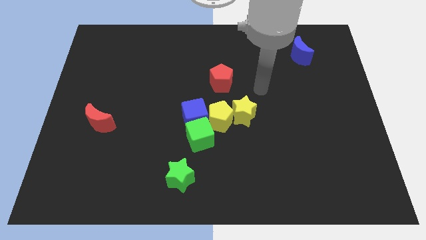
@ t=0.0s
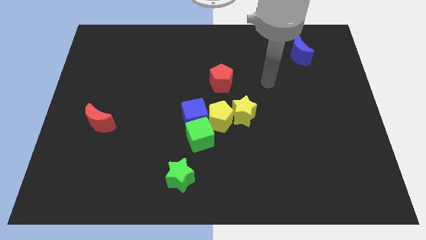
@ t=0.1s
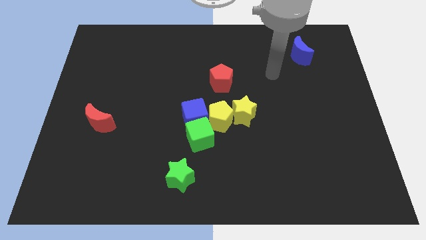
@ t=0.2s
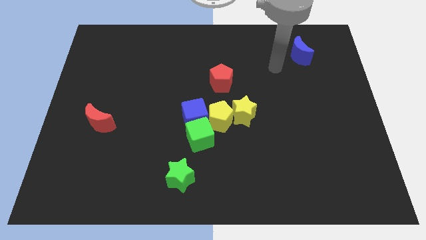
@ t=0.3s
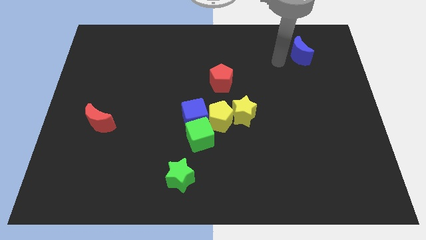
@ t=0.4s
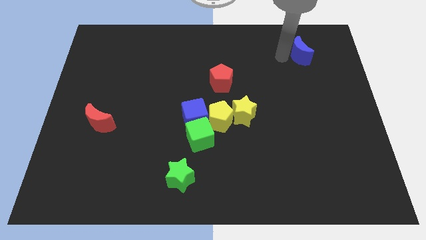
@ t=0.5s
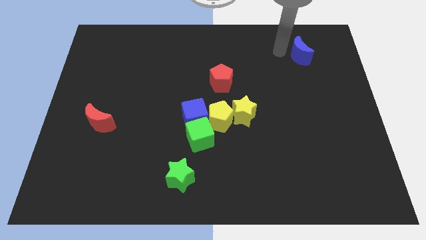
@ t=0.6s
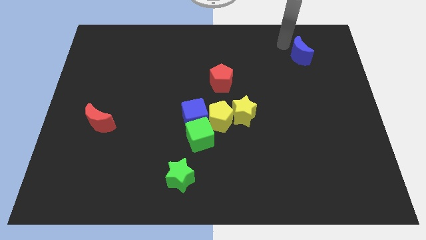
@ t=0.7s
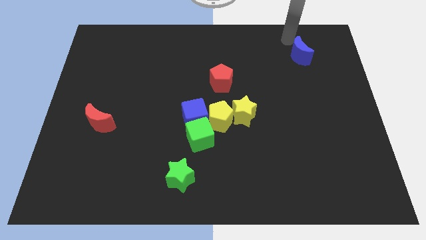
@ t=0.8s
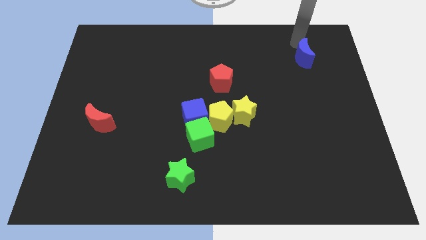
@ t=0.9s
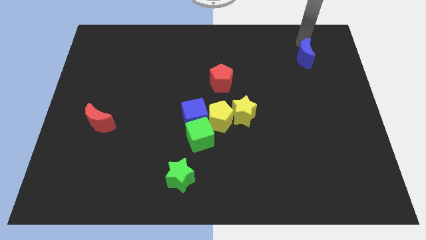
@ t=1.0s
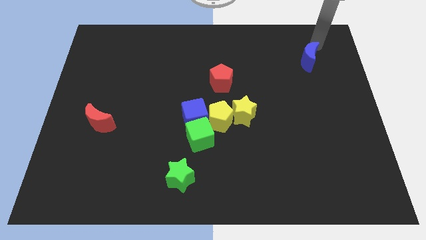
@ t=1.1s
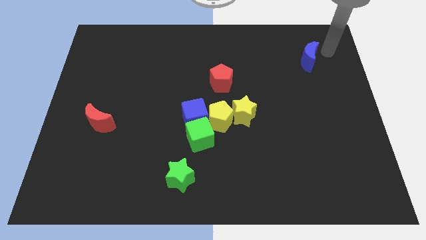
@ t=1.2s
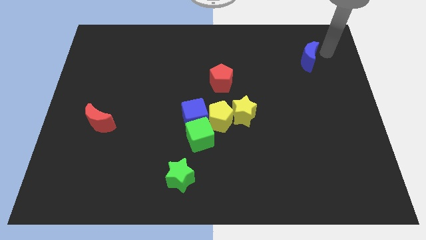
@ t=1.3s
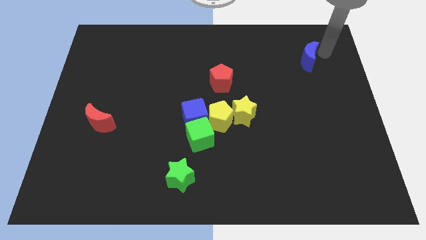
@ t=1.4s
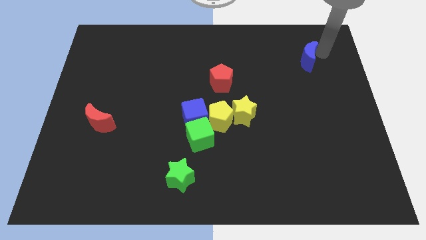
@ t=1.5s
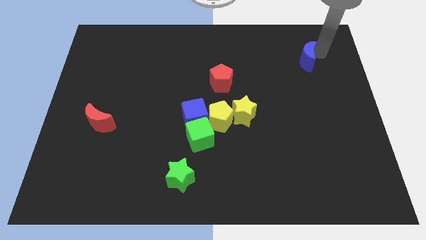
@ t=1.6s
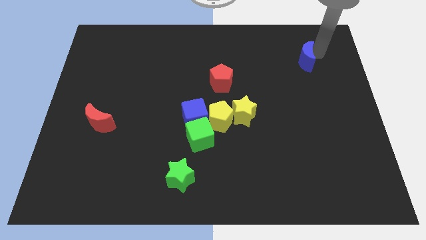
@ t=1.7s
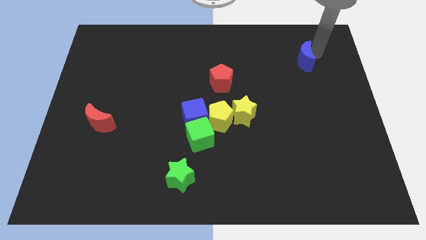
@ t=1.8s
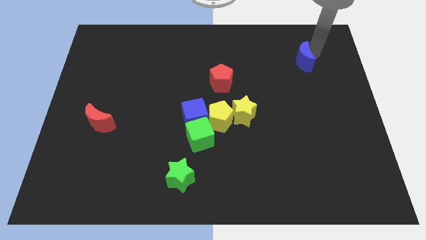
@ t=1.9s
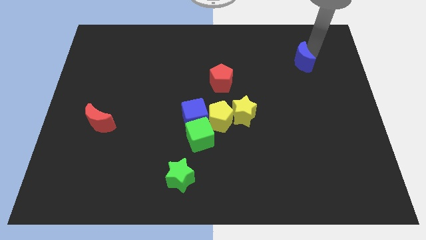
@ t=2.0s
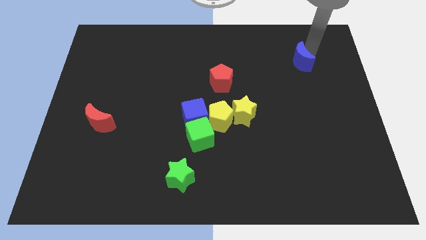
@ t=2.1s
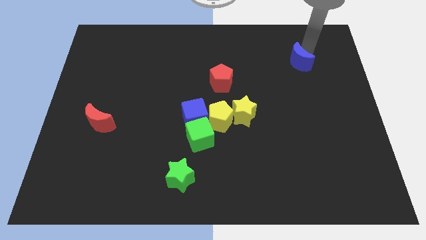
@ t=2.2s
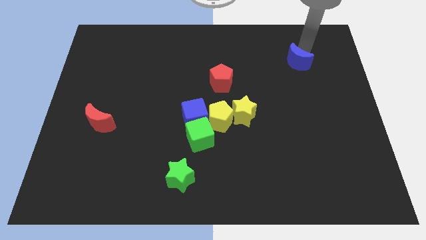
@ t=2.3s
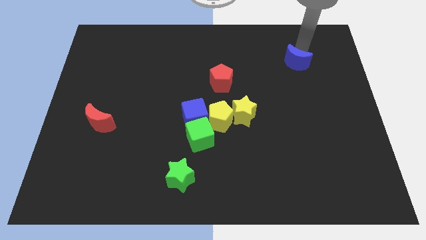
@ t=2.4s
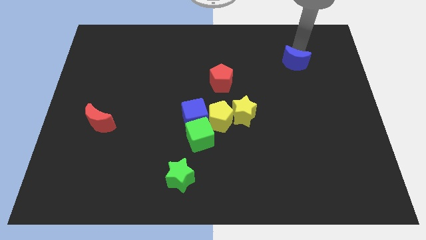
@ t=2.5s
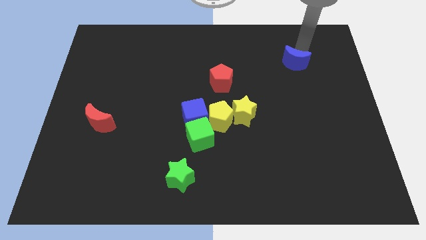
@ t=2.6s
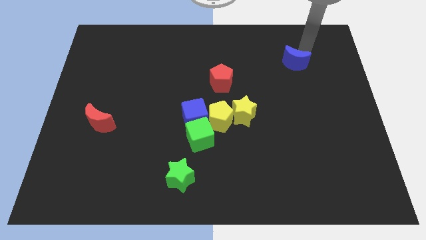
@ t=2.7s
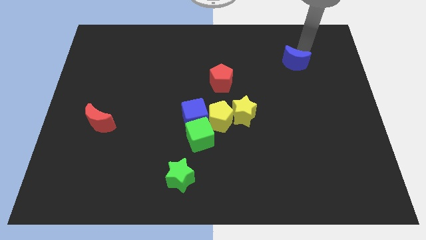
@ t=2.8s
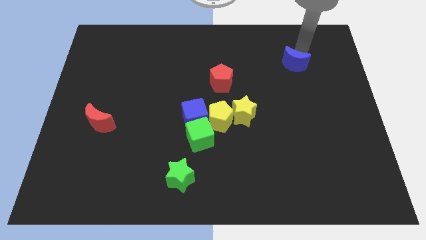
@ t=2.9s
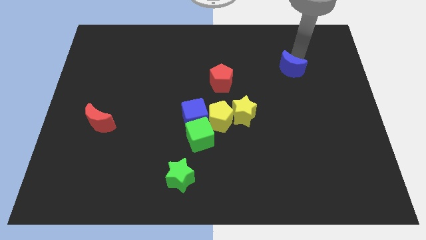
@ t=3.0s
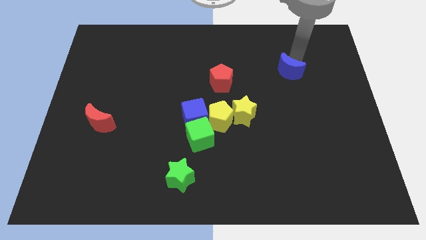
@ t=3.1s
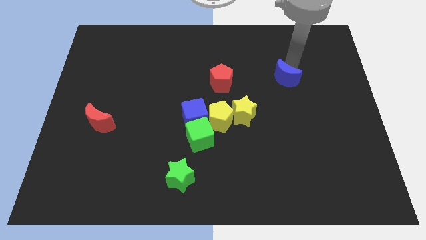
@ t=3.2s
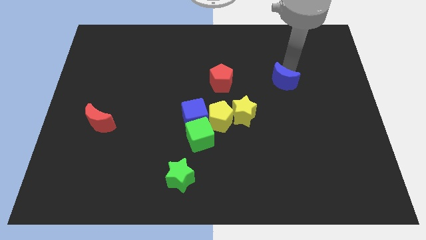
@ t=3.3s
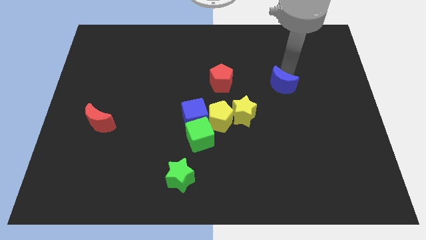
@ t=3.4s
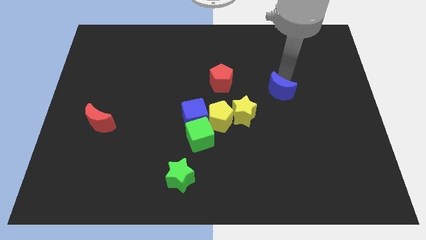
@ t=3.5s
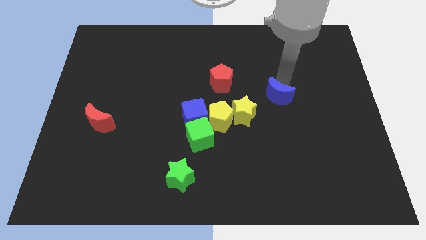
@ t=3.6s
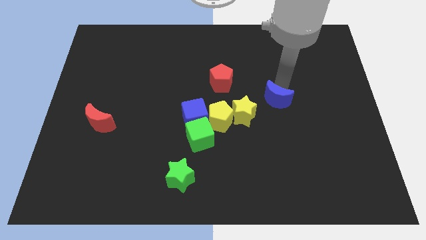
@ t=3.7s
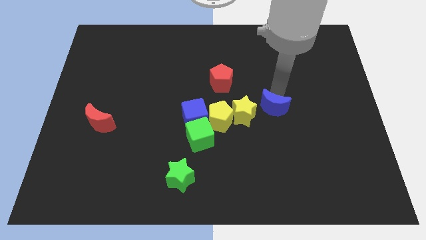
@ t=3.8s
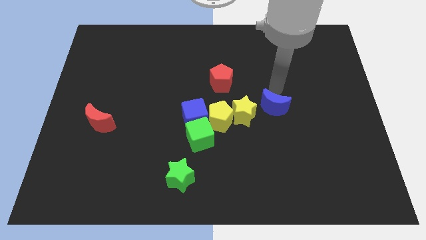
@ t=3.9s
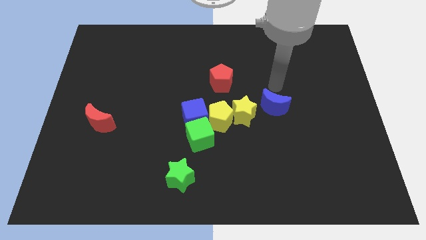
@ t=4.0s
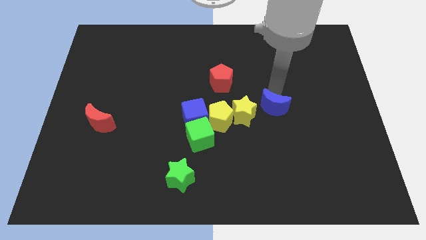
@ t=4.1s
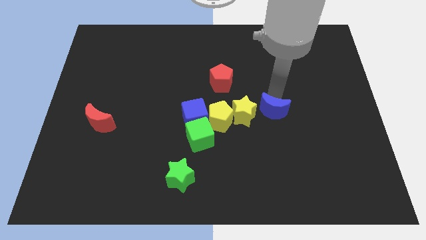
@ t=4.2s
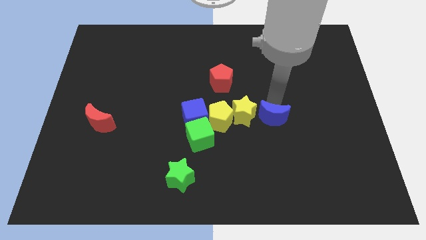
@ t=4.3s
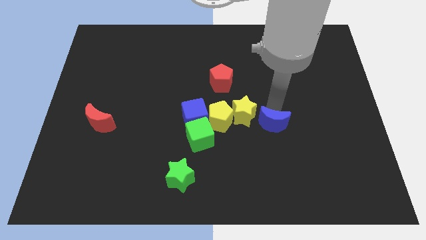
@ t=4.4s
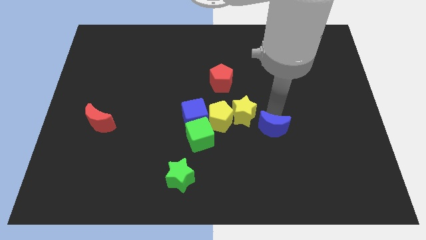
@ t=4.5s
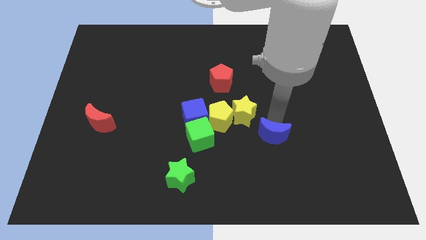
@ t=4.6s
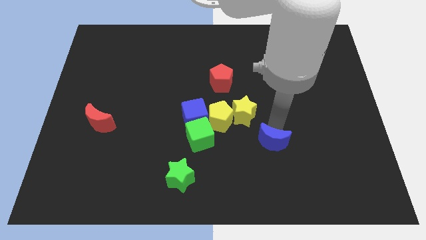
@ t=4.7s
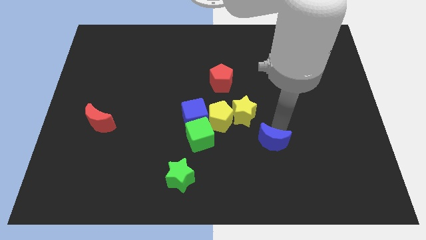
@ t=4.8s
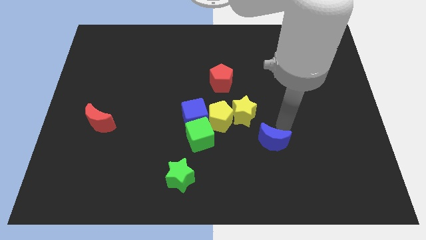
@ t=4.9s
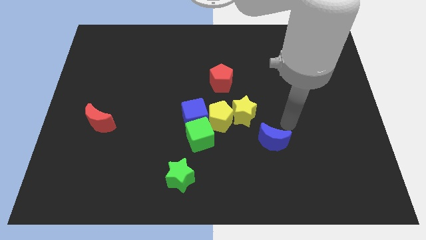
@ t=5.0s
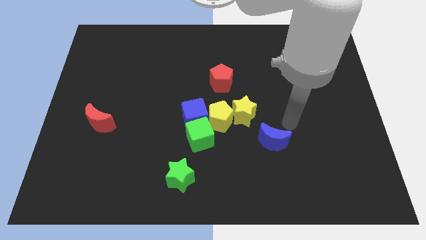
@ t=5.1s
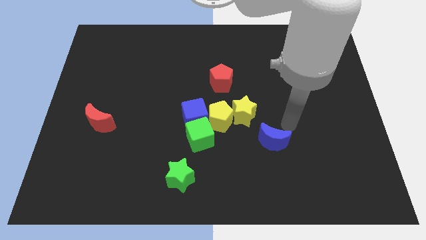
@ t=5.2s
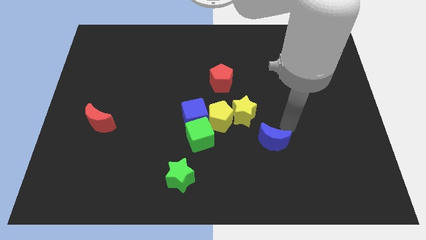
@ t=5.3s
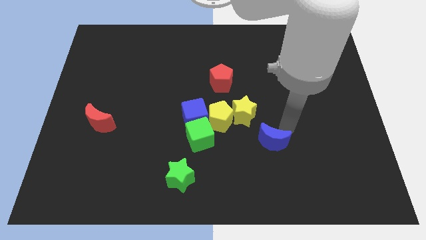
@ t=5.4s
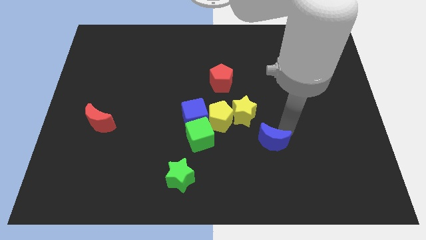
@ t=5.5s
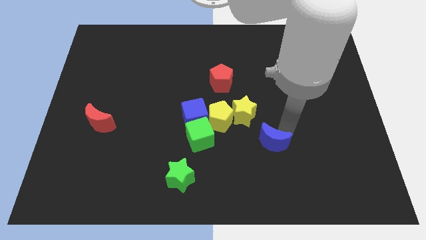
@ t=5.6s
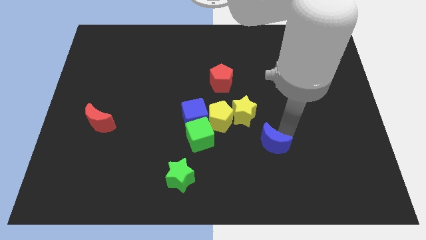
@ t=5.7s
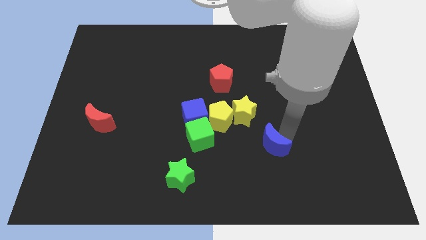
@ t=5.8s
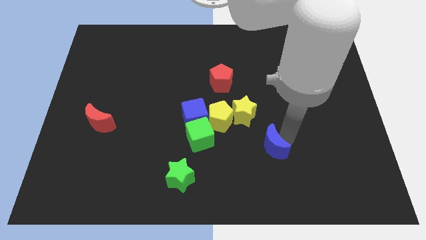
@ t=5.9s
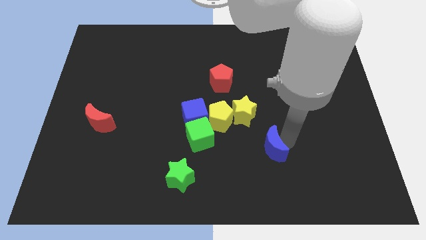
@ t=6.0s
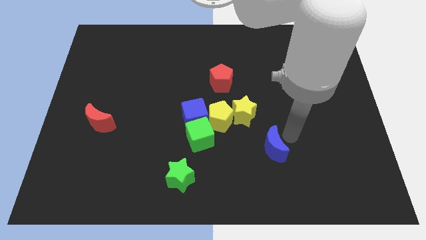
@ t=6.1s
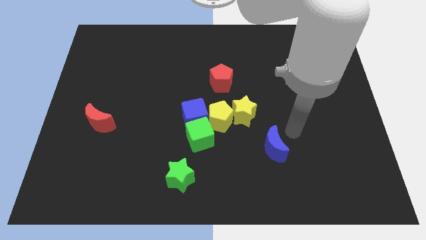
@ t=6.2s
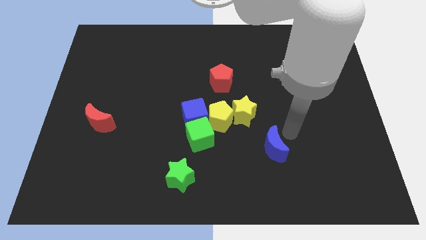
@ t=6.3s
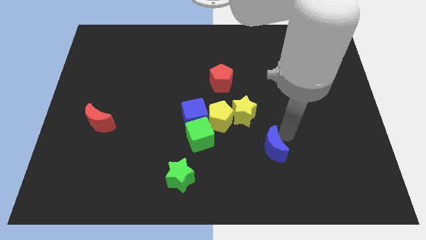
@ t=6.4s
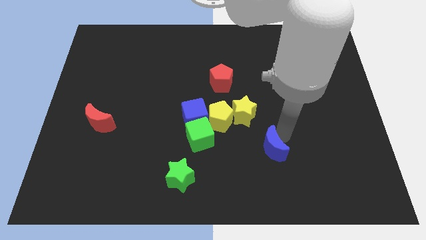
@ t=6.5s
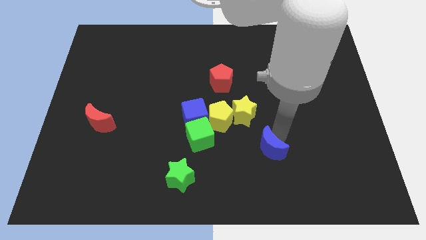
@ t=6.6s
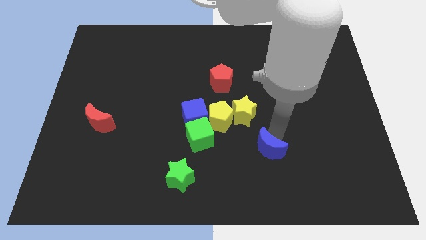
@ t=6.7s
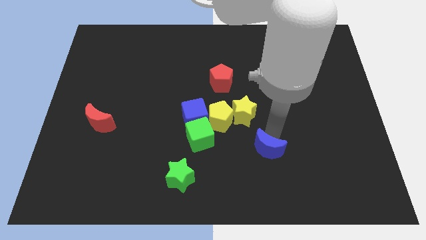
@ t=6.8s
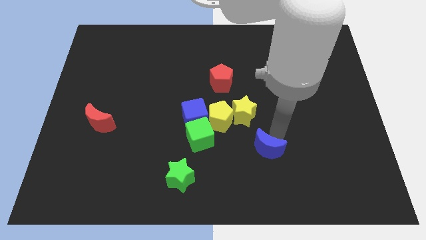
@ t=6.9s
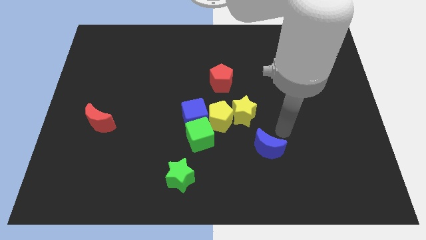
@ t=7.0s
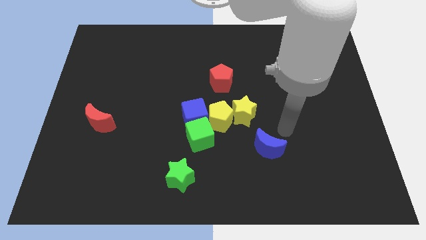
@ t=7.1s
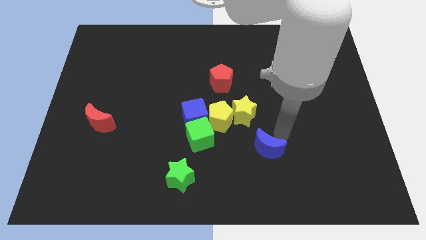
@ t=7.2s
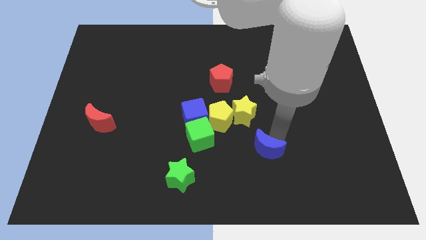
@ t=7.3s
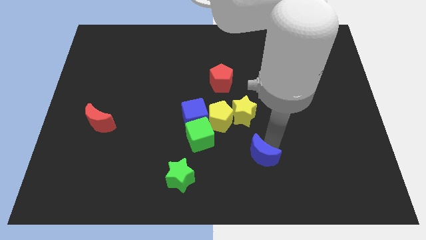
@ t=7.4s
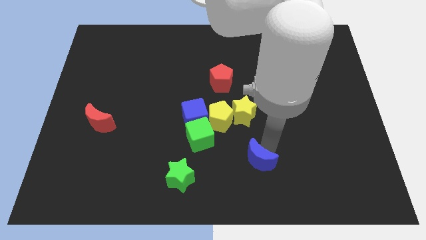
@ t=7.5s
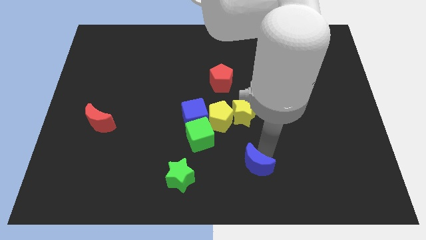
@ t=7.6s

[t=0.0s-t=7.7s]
put the blue moon to the bottom side
